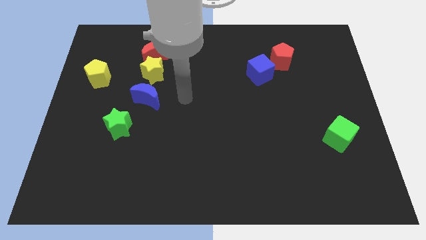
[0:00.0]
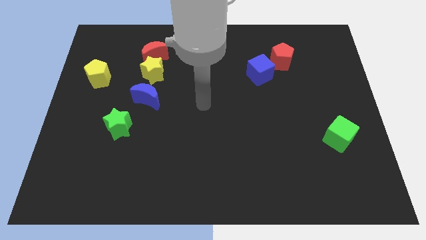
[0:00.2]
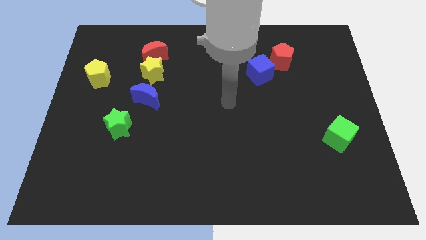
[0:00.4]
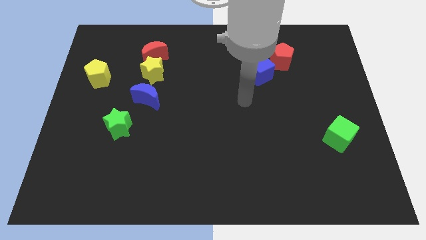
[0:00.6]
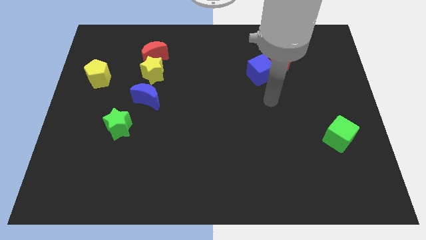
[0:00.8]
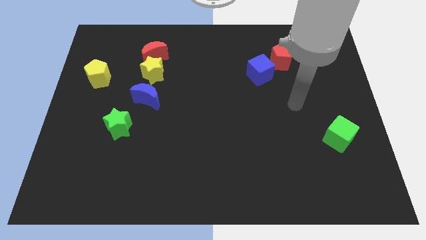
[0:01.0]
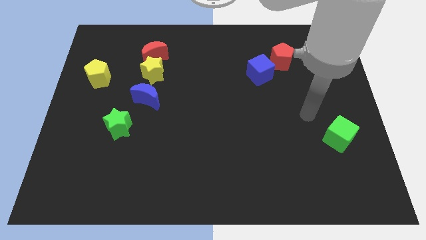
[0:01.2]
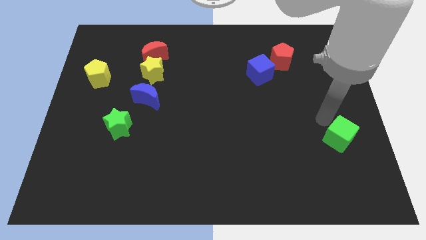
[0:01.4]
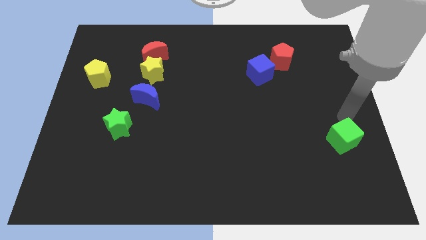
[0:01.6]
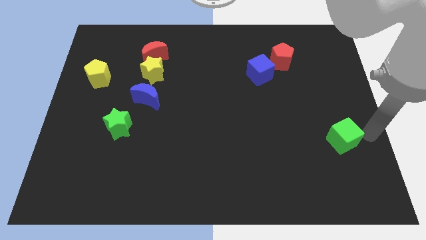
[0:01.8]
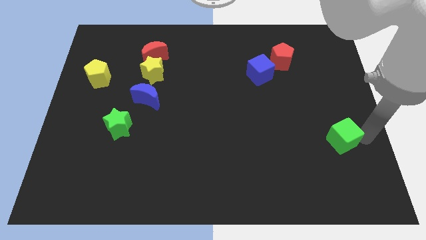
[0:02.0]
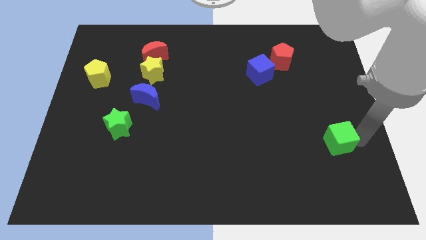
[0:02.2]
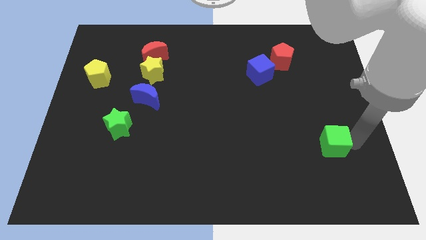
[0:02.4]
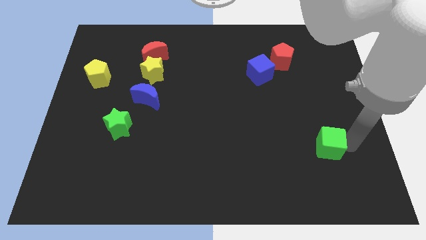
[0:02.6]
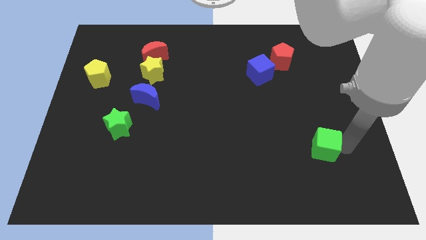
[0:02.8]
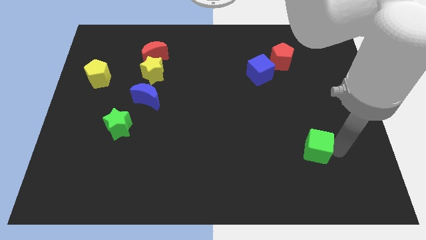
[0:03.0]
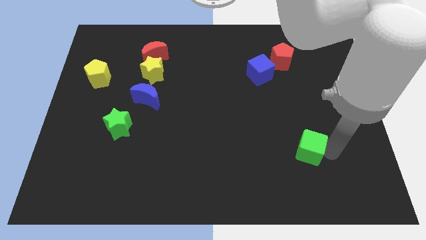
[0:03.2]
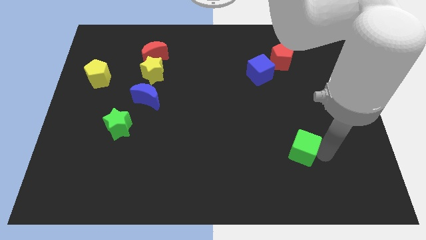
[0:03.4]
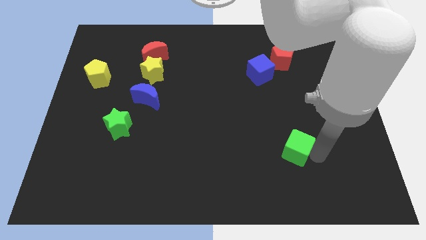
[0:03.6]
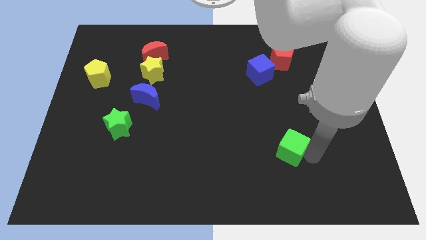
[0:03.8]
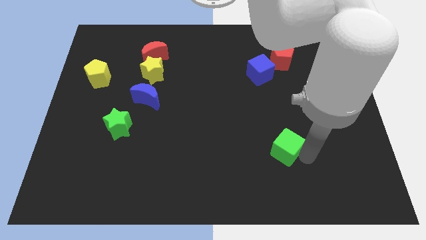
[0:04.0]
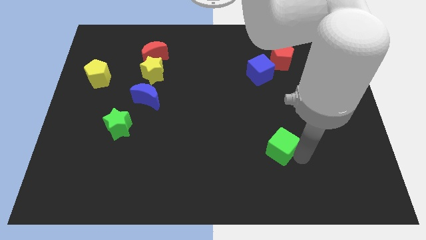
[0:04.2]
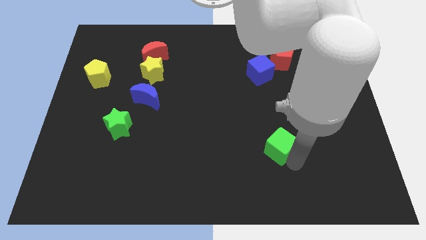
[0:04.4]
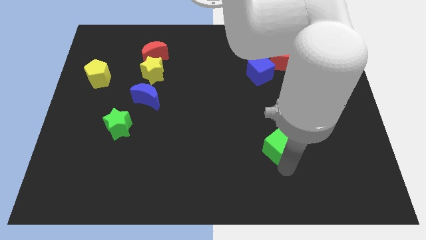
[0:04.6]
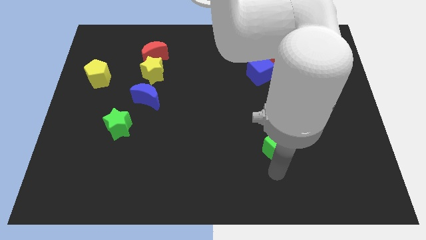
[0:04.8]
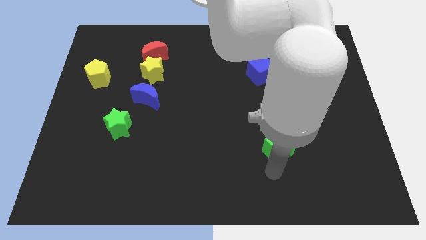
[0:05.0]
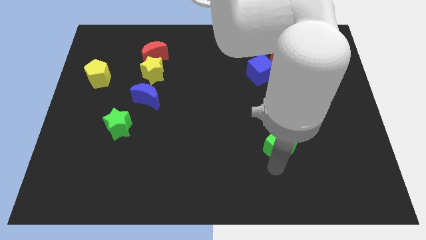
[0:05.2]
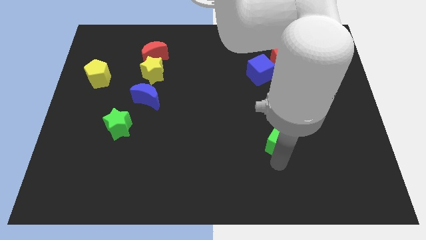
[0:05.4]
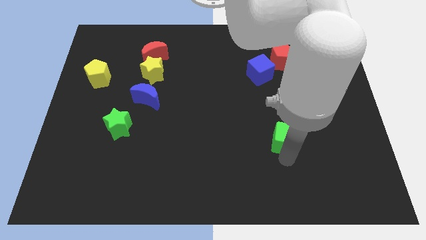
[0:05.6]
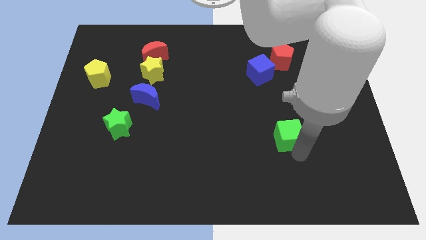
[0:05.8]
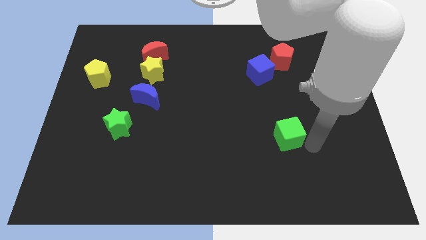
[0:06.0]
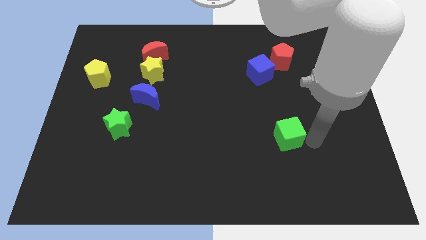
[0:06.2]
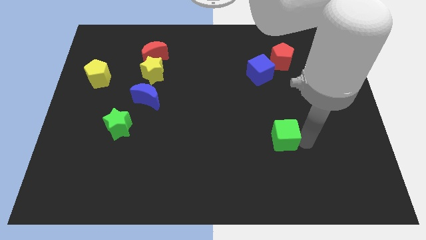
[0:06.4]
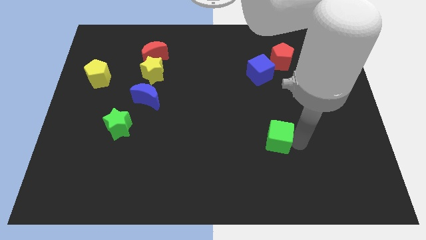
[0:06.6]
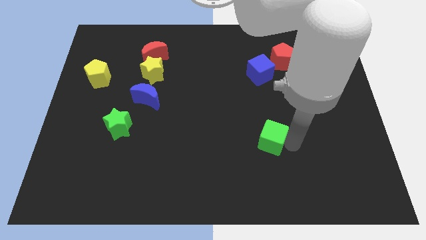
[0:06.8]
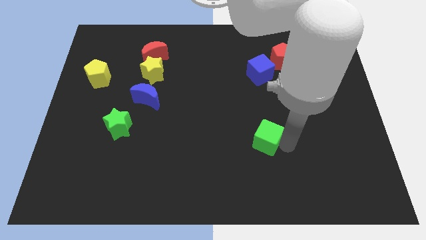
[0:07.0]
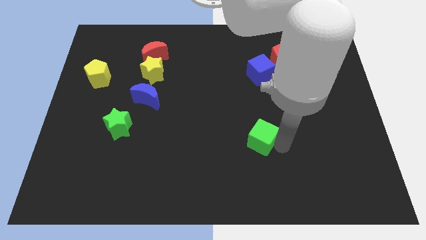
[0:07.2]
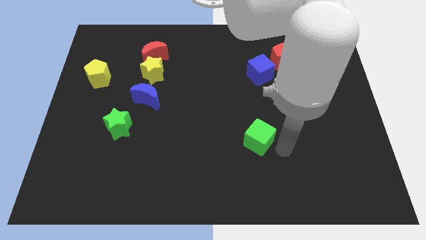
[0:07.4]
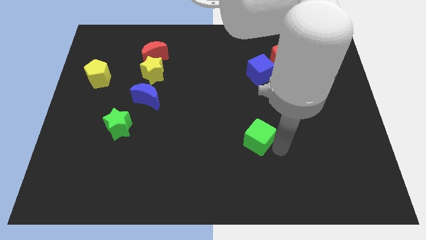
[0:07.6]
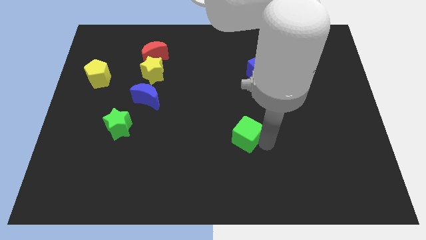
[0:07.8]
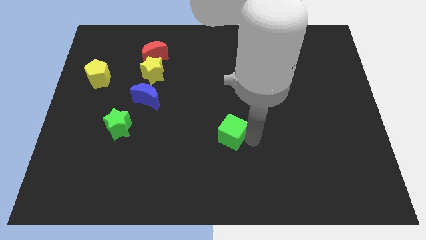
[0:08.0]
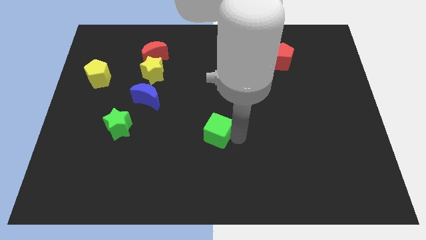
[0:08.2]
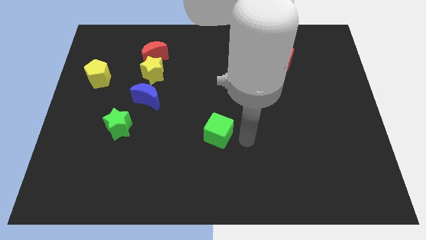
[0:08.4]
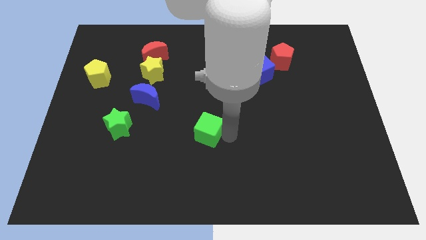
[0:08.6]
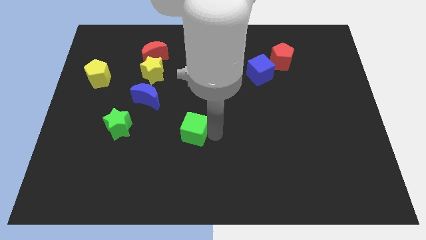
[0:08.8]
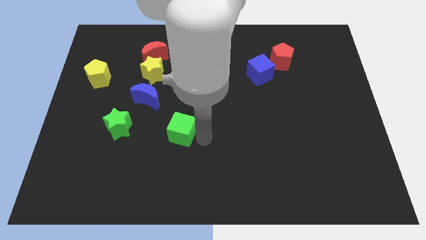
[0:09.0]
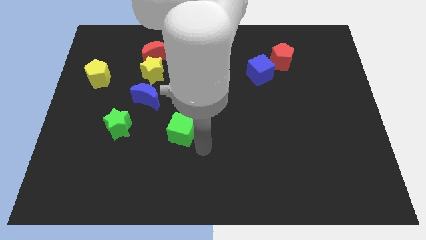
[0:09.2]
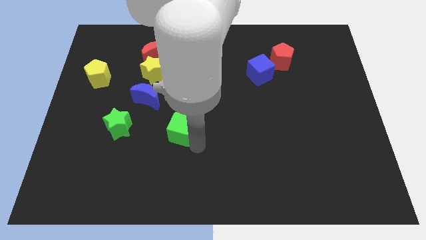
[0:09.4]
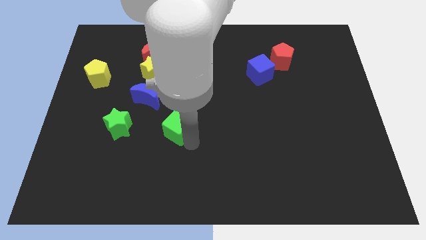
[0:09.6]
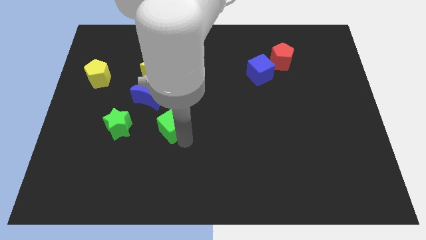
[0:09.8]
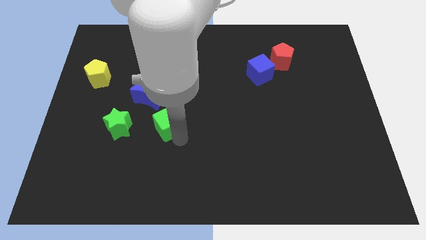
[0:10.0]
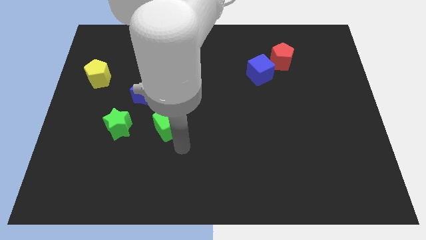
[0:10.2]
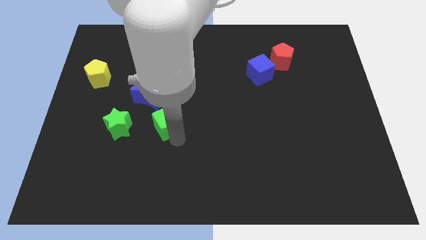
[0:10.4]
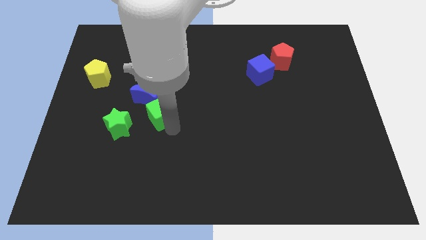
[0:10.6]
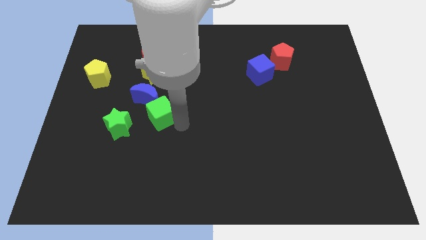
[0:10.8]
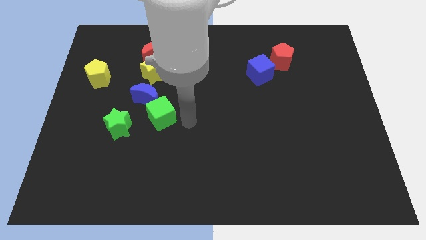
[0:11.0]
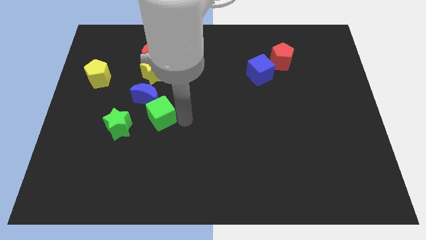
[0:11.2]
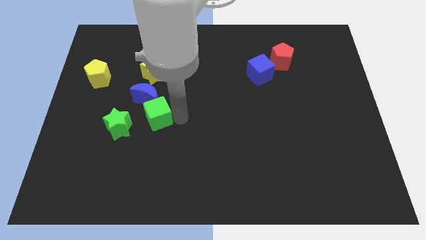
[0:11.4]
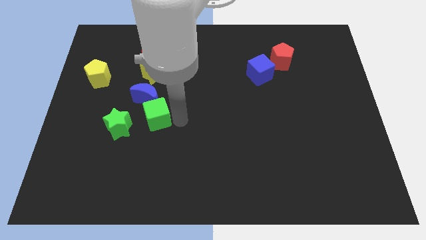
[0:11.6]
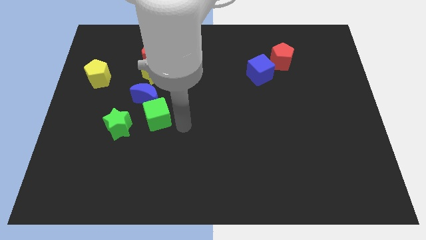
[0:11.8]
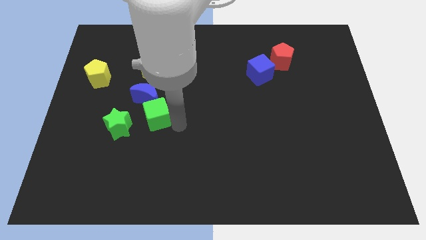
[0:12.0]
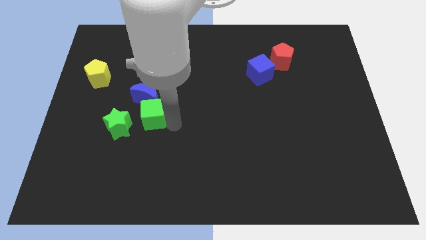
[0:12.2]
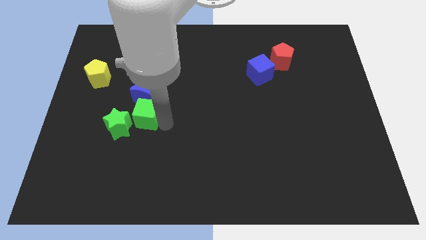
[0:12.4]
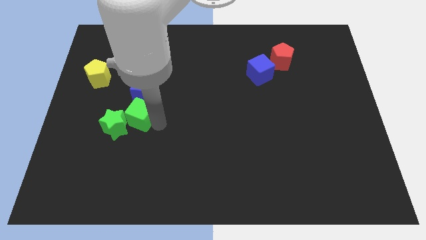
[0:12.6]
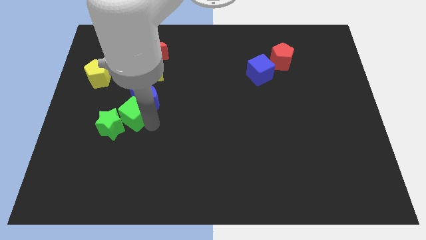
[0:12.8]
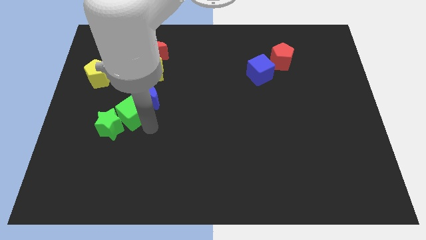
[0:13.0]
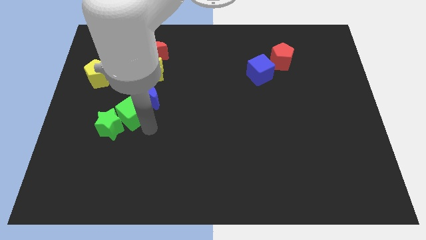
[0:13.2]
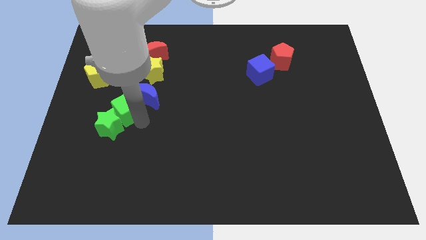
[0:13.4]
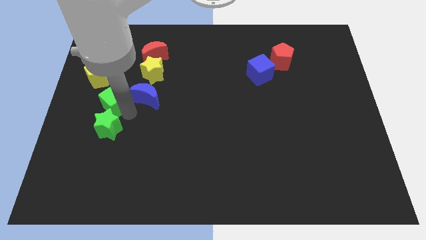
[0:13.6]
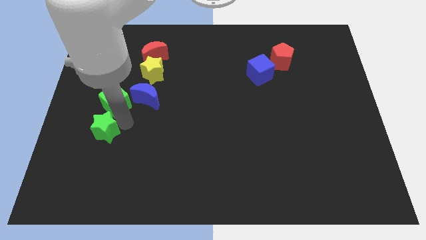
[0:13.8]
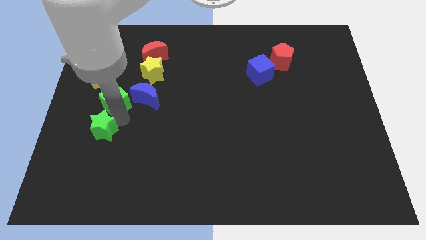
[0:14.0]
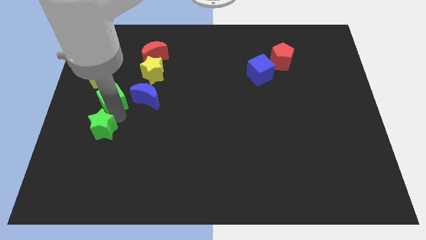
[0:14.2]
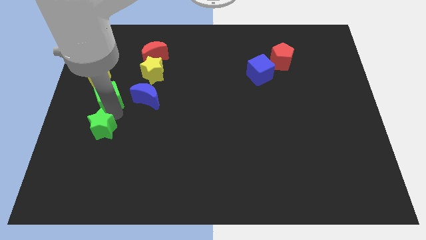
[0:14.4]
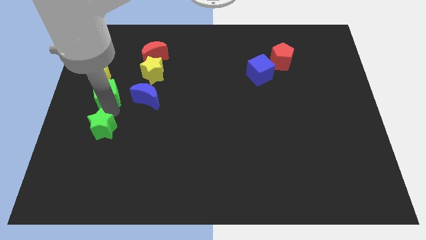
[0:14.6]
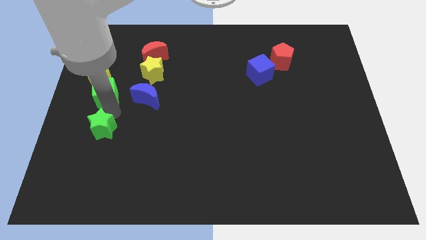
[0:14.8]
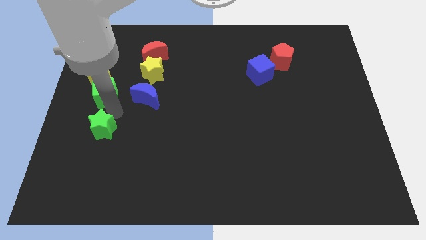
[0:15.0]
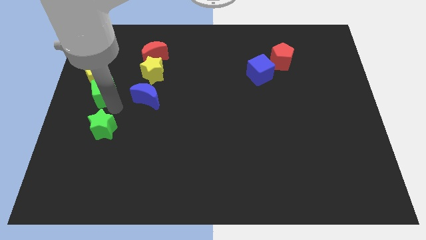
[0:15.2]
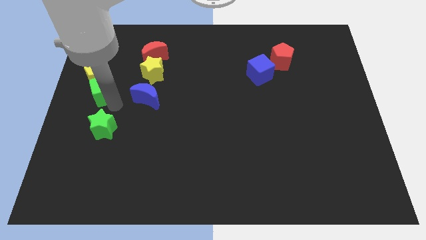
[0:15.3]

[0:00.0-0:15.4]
push the green cube to the yellow pentagon
